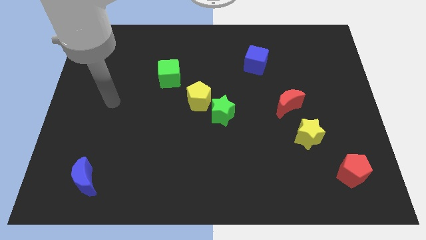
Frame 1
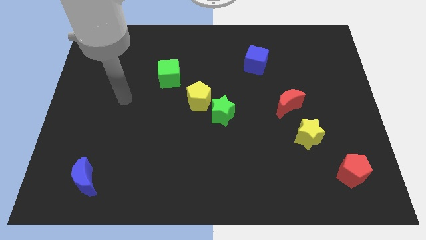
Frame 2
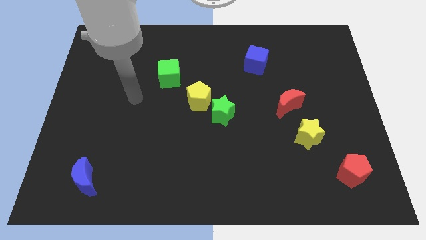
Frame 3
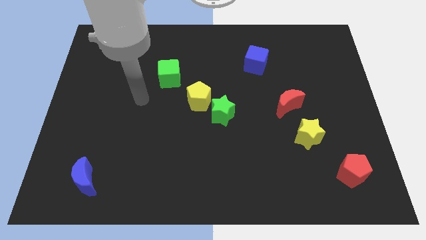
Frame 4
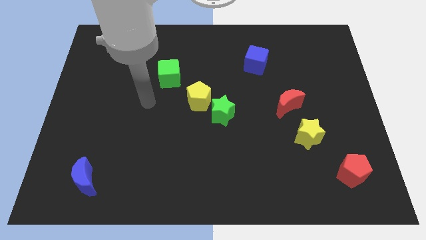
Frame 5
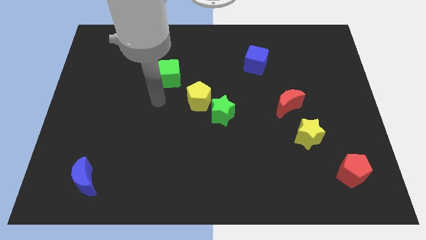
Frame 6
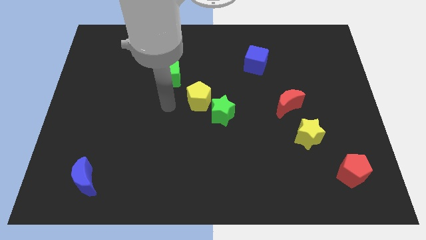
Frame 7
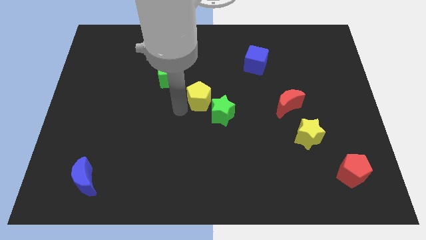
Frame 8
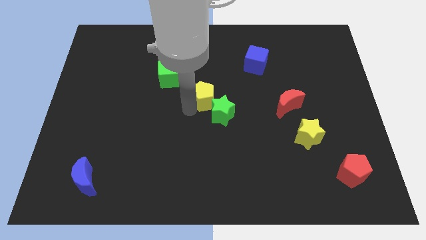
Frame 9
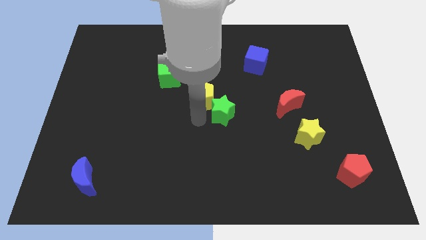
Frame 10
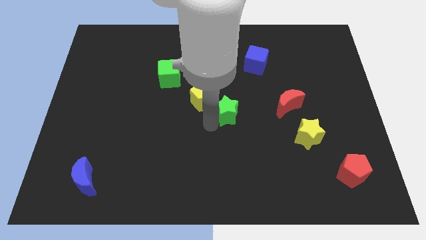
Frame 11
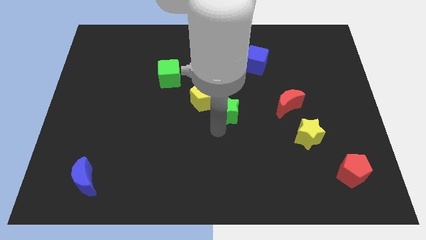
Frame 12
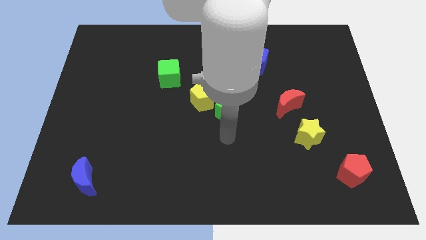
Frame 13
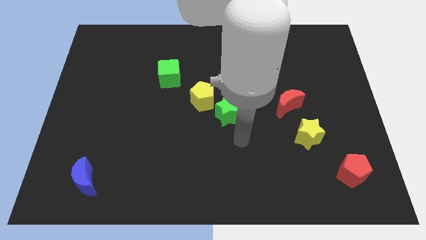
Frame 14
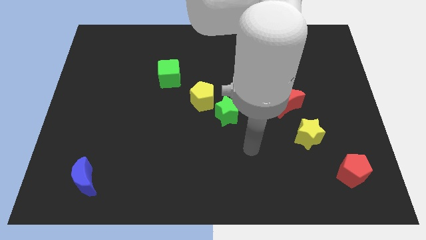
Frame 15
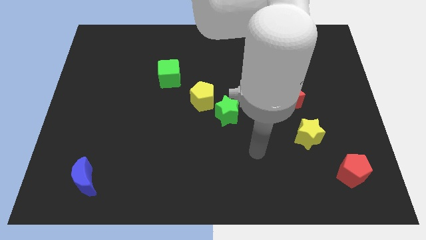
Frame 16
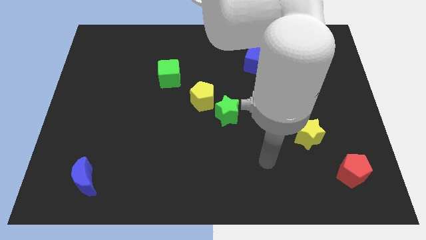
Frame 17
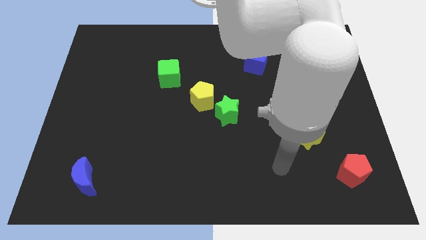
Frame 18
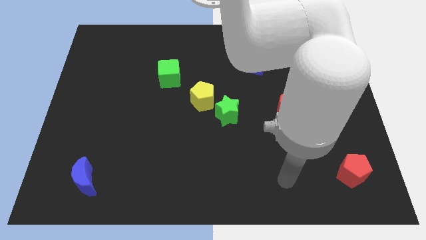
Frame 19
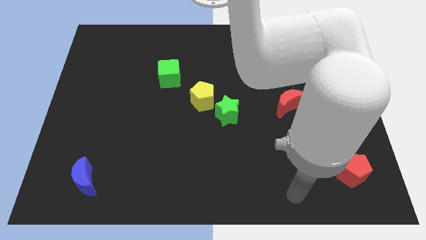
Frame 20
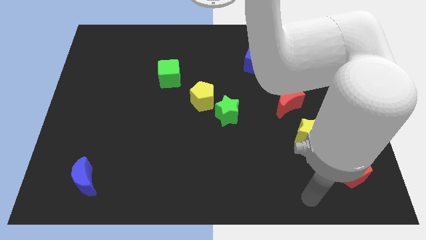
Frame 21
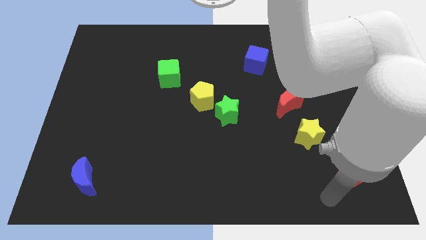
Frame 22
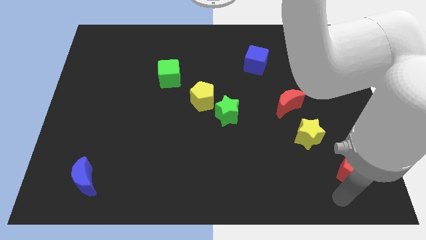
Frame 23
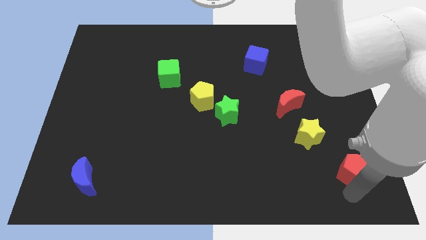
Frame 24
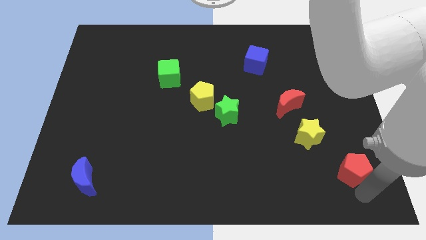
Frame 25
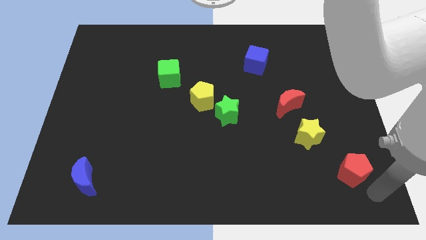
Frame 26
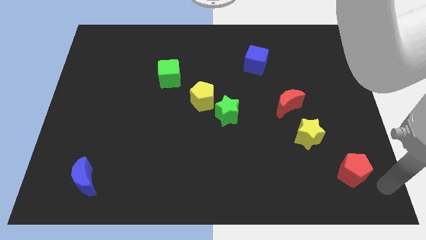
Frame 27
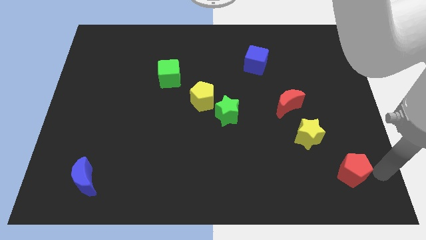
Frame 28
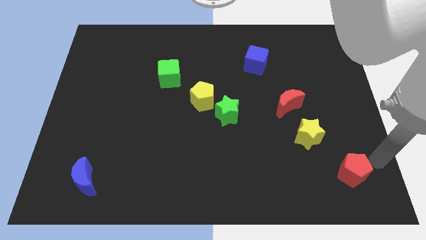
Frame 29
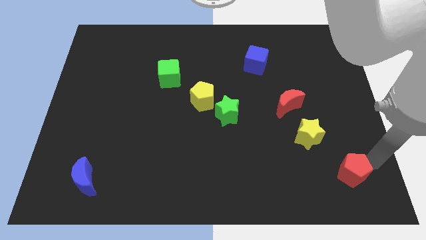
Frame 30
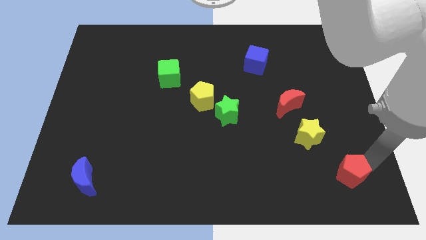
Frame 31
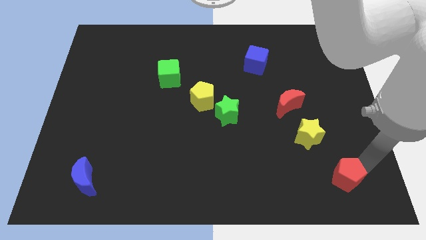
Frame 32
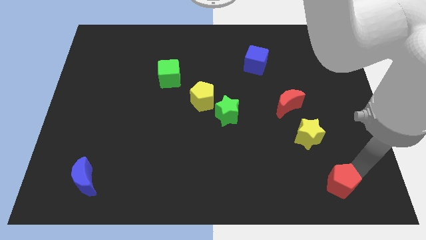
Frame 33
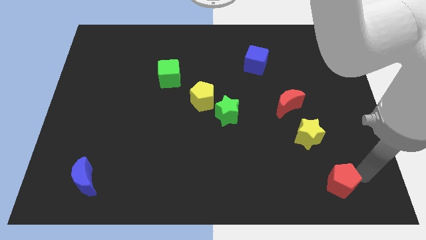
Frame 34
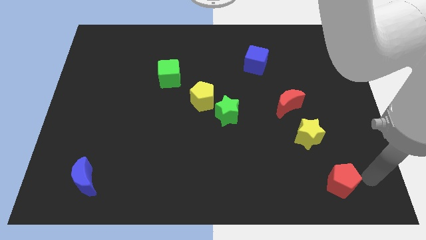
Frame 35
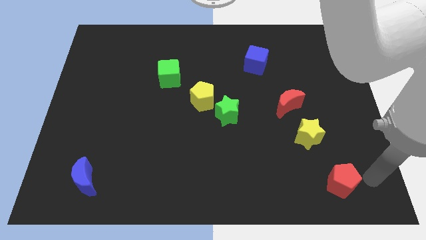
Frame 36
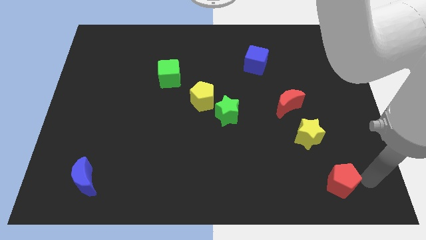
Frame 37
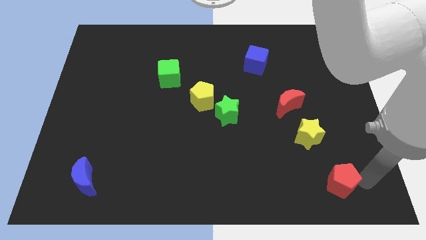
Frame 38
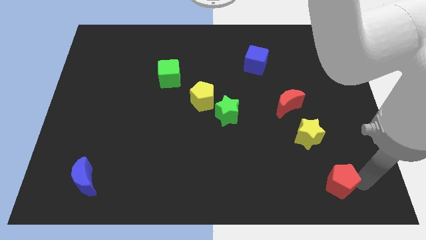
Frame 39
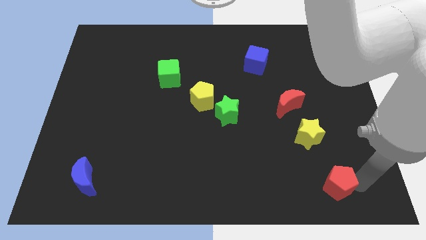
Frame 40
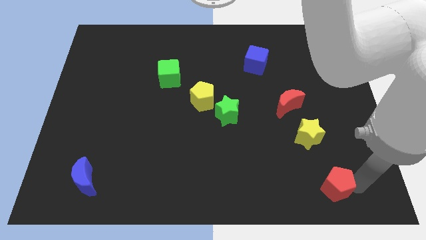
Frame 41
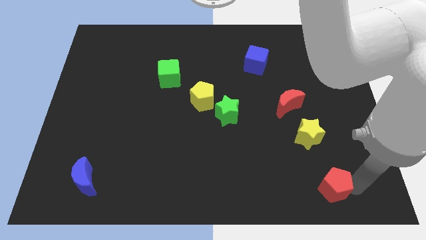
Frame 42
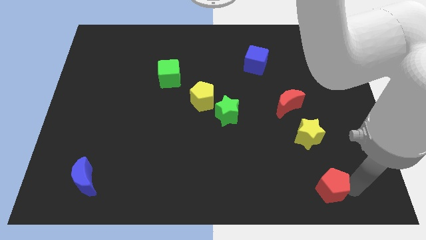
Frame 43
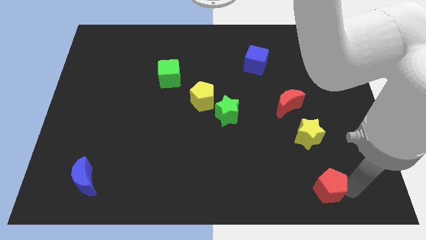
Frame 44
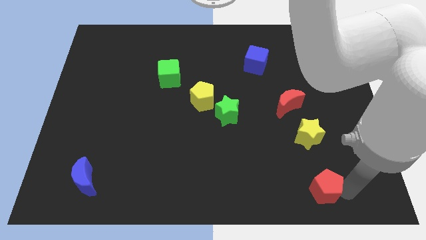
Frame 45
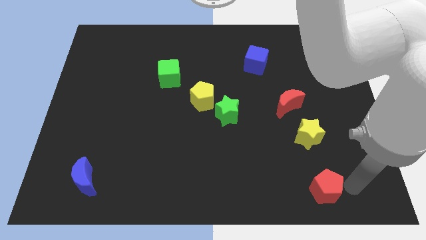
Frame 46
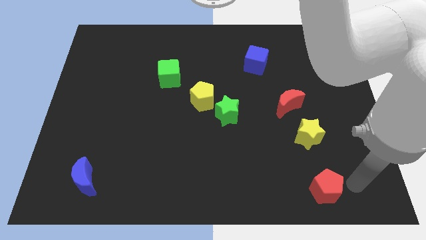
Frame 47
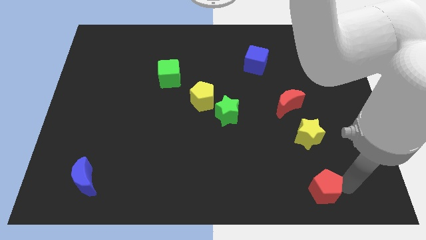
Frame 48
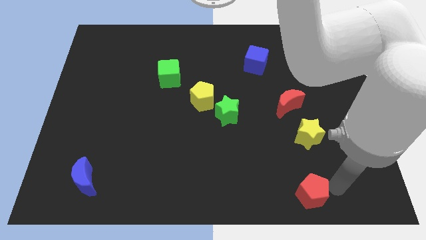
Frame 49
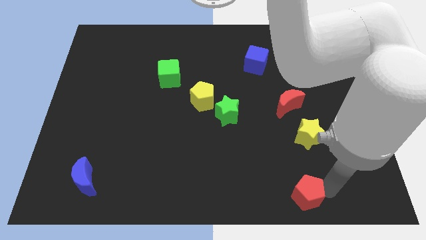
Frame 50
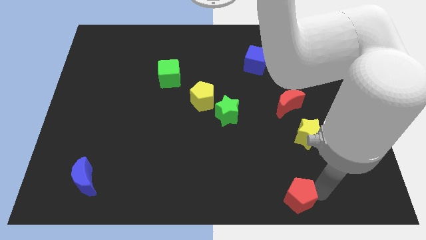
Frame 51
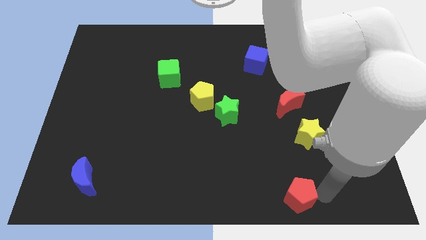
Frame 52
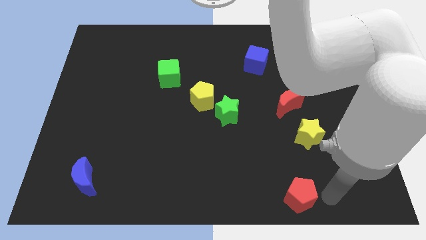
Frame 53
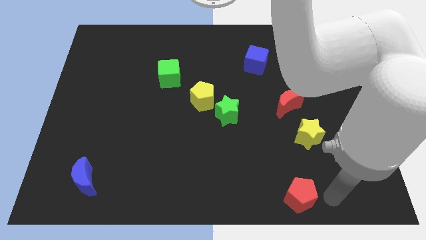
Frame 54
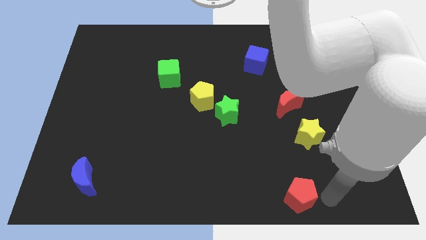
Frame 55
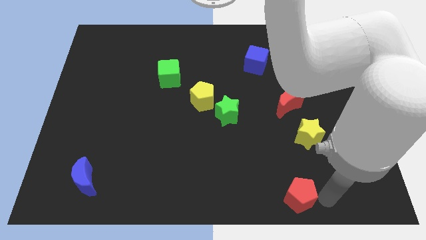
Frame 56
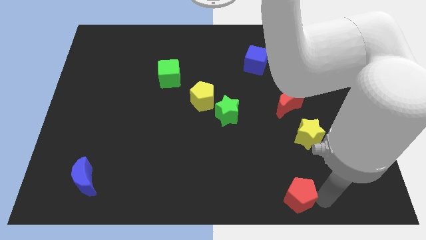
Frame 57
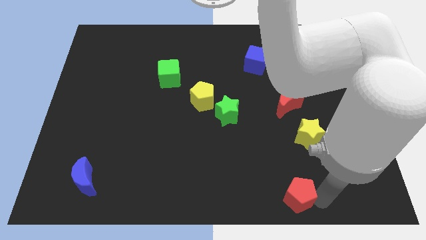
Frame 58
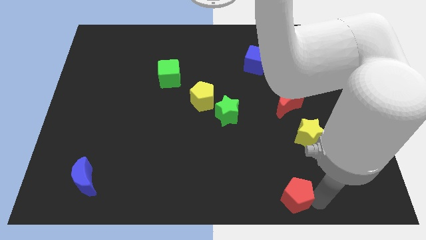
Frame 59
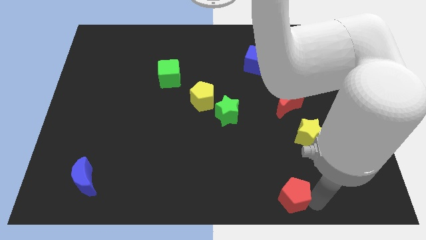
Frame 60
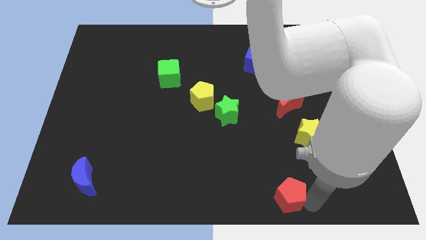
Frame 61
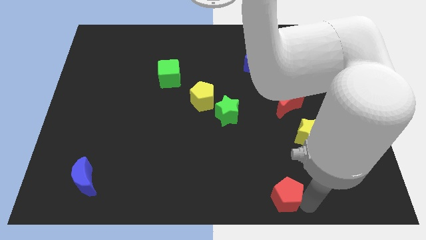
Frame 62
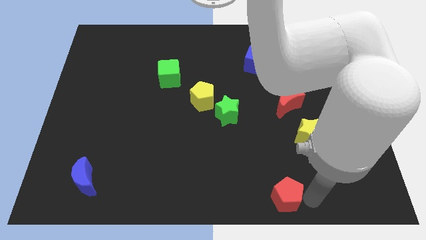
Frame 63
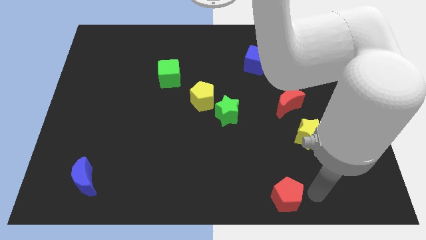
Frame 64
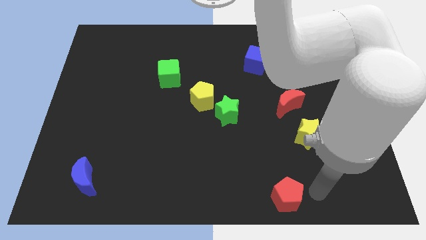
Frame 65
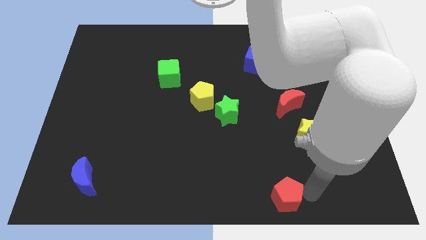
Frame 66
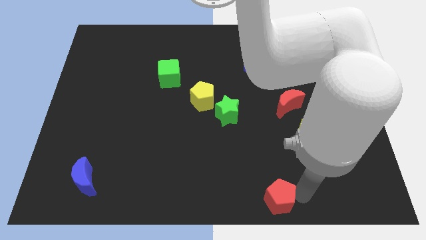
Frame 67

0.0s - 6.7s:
push the red pentagon to the bottom
